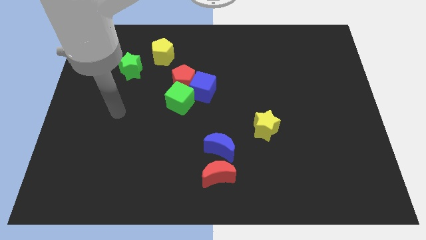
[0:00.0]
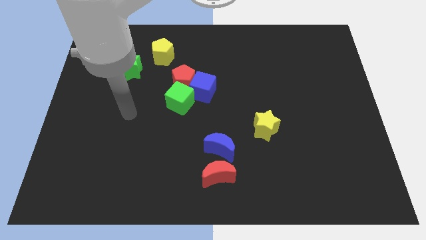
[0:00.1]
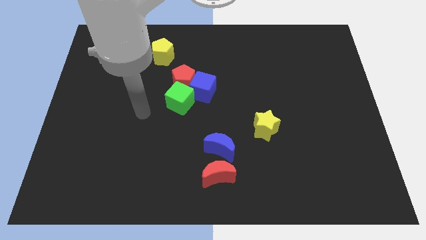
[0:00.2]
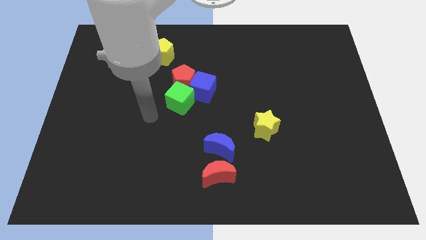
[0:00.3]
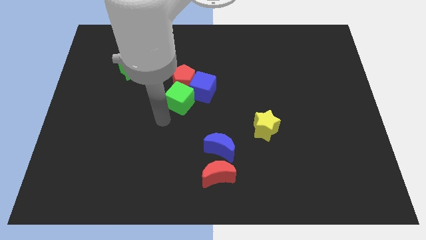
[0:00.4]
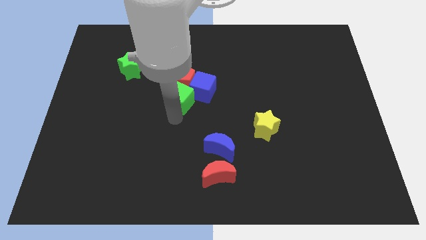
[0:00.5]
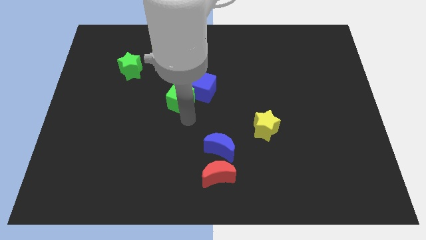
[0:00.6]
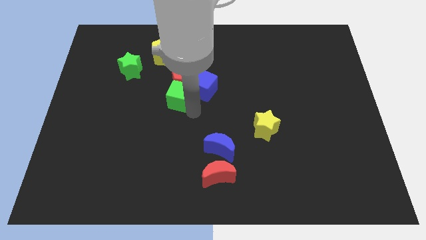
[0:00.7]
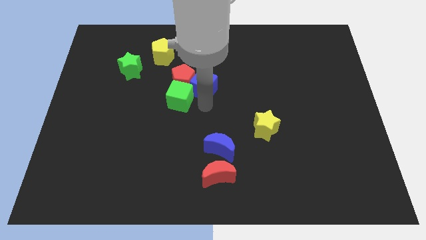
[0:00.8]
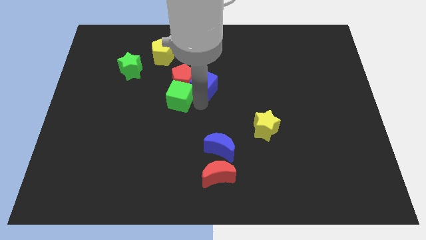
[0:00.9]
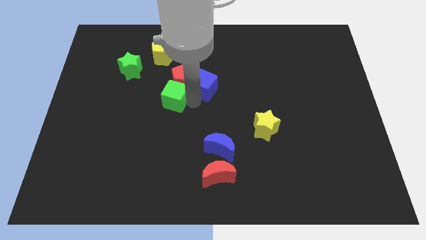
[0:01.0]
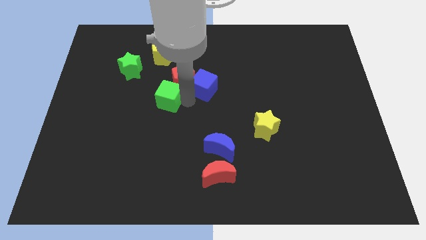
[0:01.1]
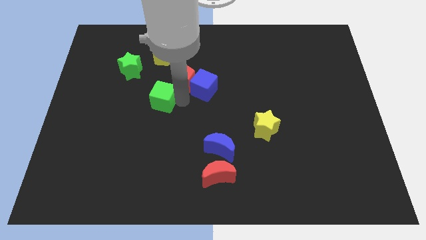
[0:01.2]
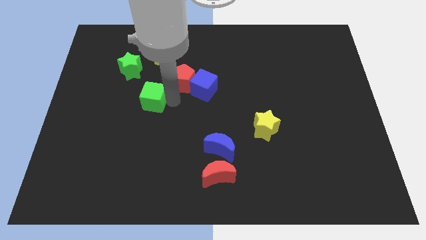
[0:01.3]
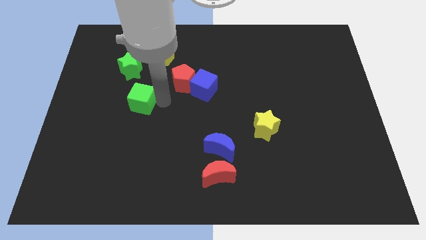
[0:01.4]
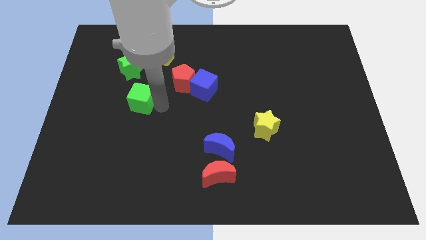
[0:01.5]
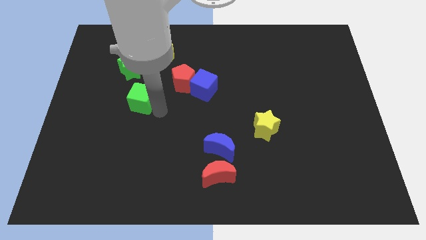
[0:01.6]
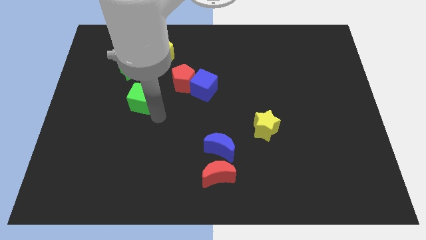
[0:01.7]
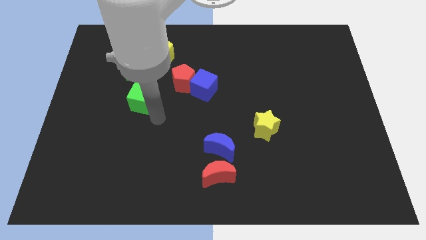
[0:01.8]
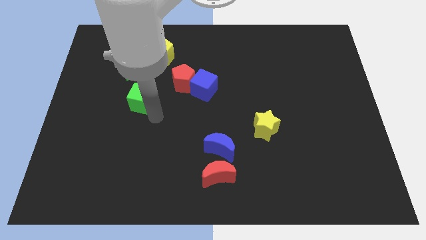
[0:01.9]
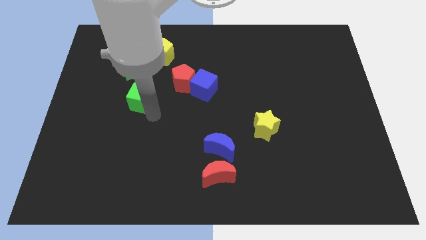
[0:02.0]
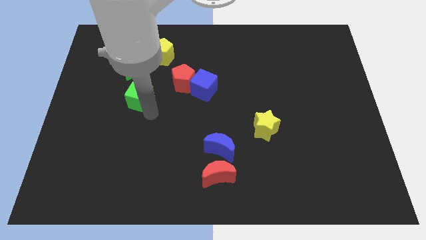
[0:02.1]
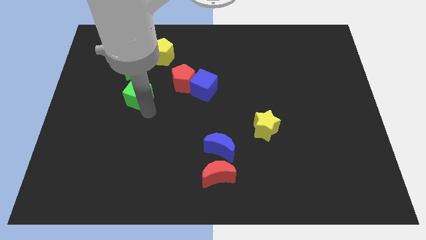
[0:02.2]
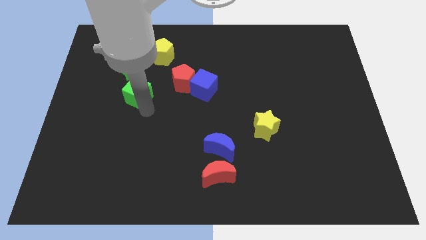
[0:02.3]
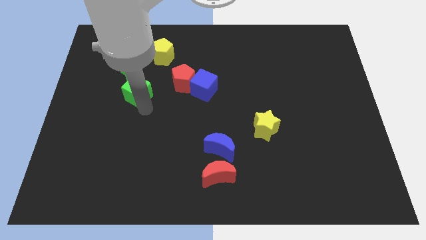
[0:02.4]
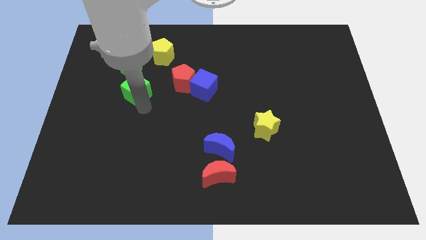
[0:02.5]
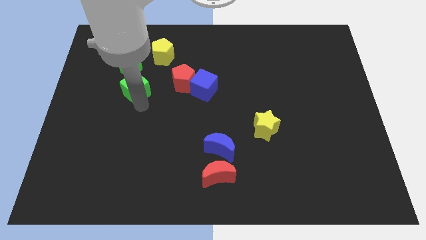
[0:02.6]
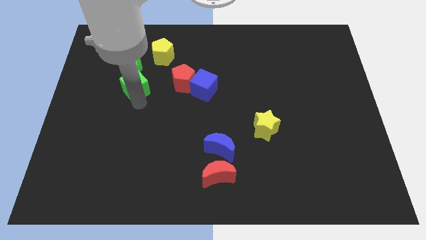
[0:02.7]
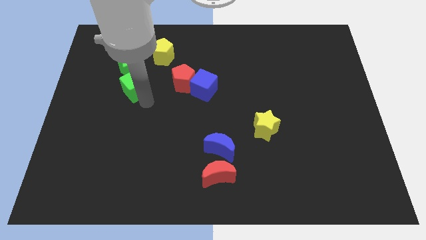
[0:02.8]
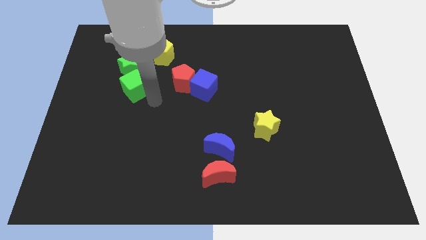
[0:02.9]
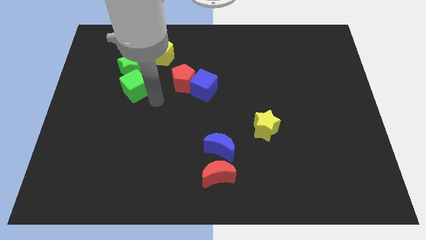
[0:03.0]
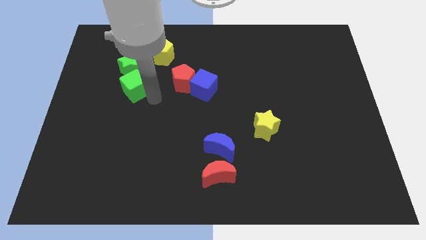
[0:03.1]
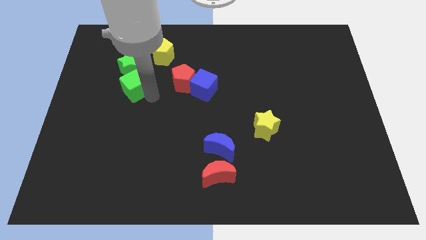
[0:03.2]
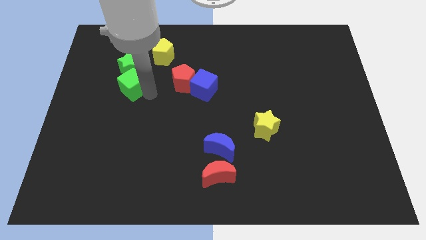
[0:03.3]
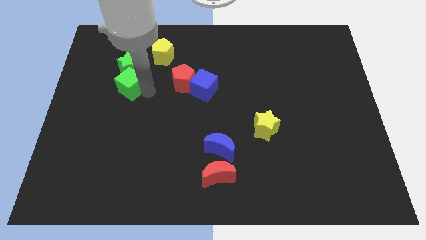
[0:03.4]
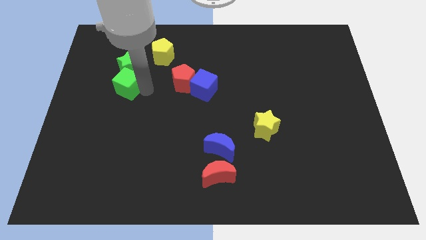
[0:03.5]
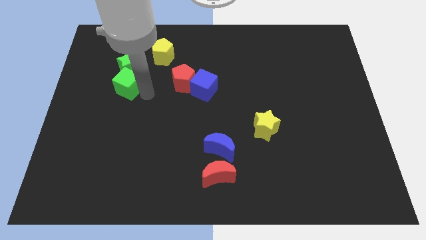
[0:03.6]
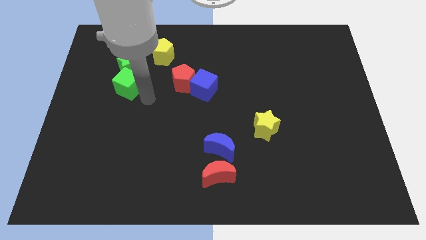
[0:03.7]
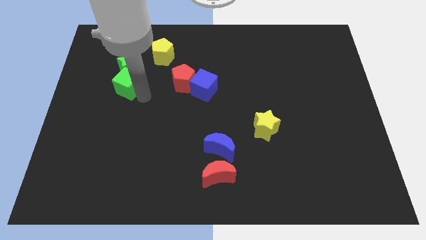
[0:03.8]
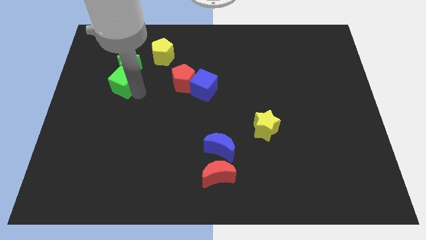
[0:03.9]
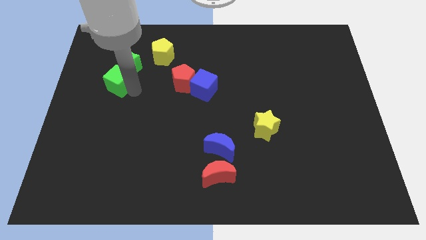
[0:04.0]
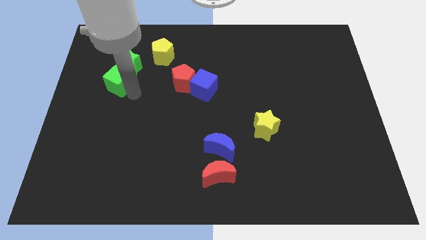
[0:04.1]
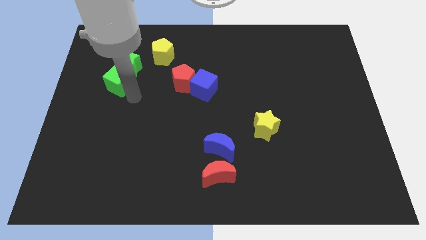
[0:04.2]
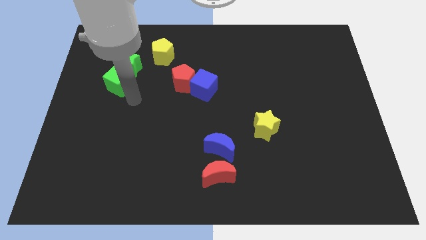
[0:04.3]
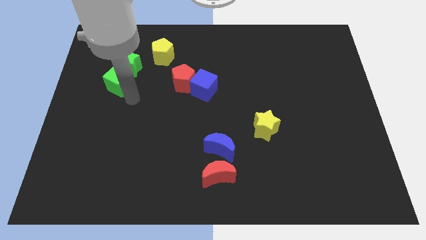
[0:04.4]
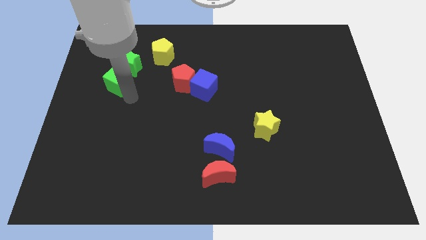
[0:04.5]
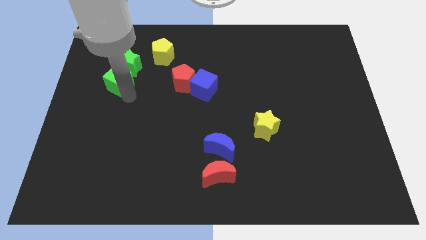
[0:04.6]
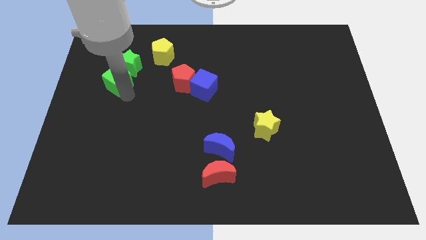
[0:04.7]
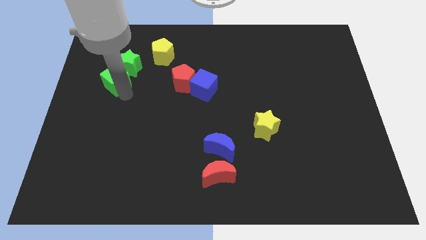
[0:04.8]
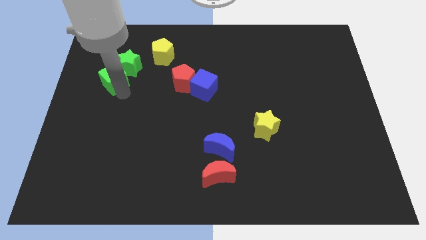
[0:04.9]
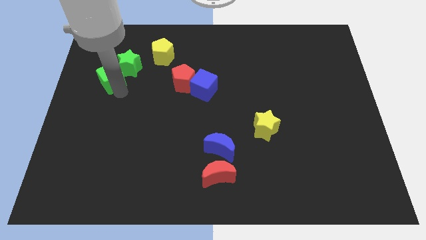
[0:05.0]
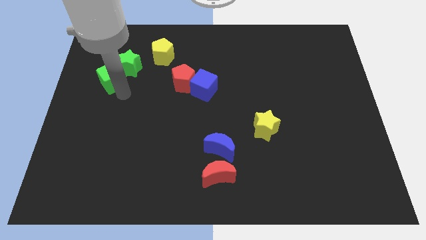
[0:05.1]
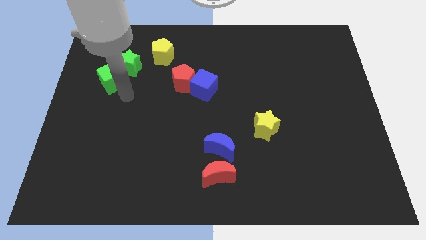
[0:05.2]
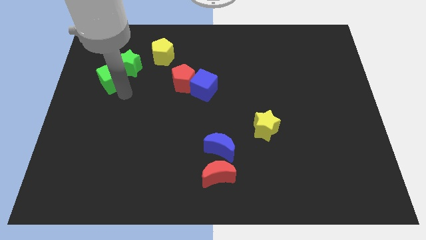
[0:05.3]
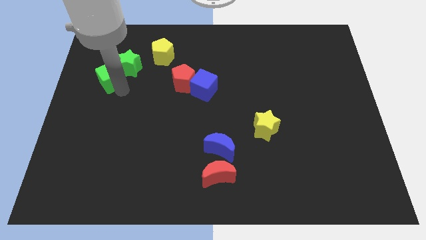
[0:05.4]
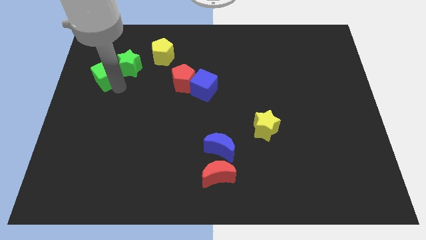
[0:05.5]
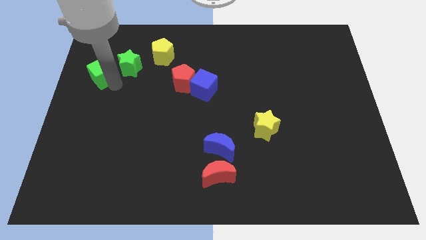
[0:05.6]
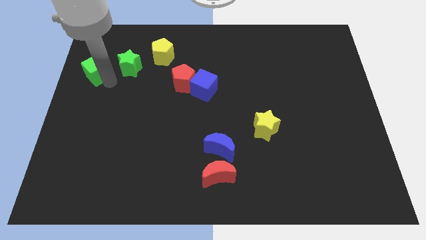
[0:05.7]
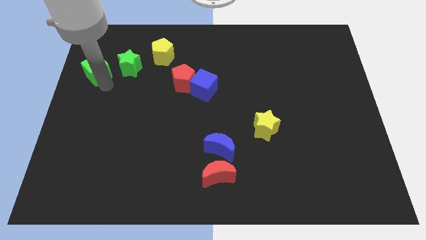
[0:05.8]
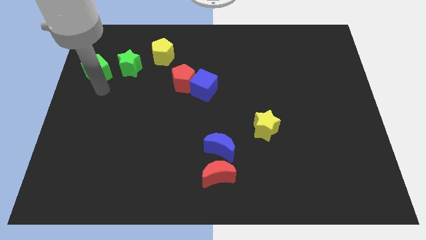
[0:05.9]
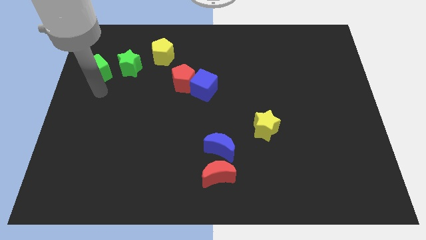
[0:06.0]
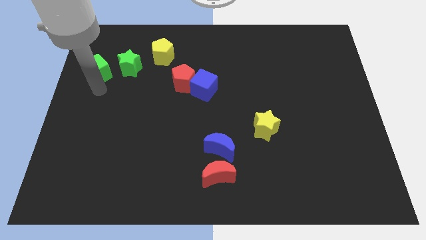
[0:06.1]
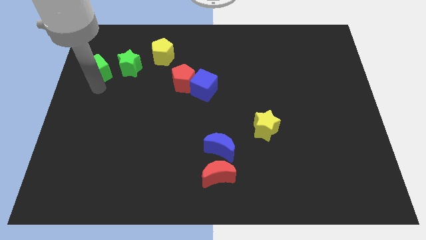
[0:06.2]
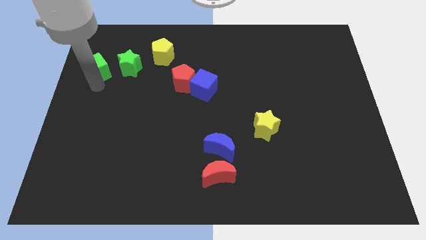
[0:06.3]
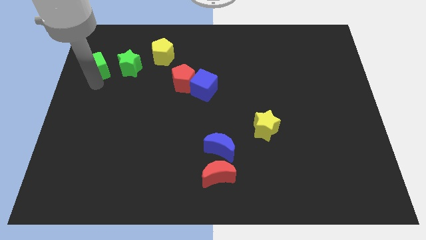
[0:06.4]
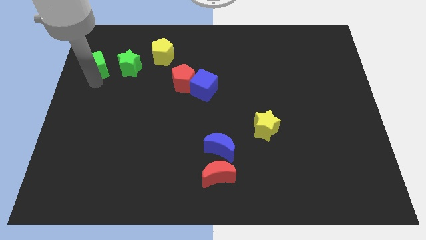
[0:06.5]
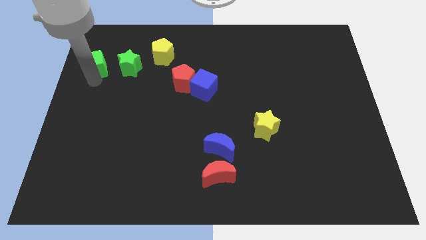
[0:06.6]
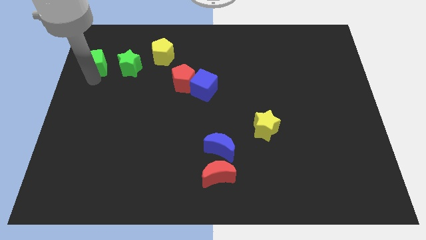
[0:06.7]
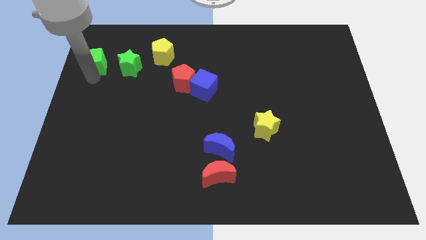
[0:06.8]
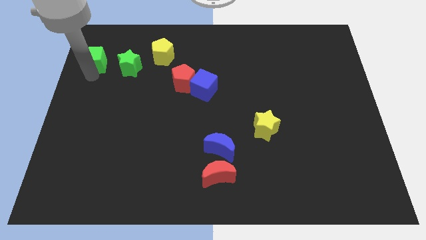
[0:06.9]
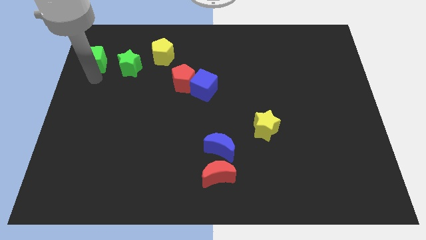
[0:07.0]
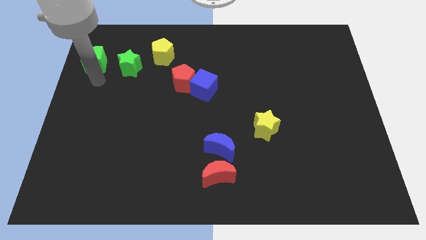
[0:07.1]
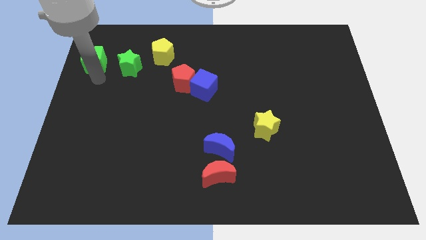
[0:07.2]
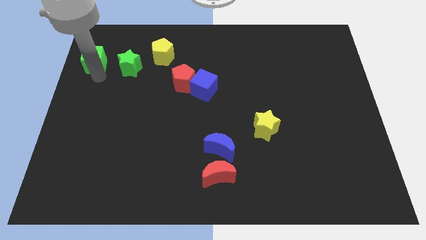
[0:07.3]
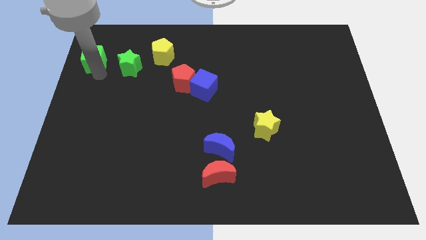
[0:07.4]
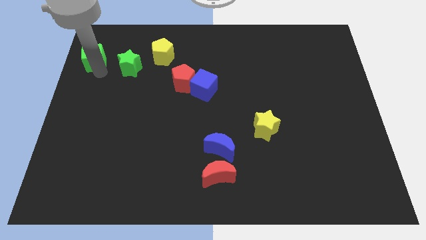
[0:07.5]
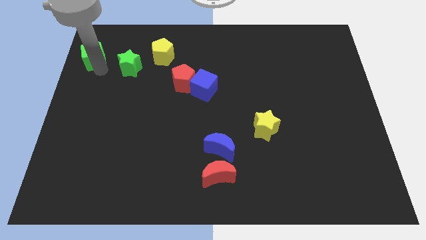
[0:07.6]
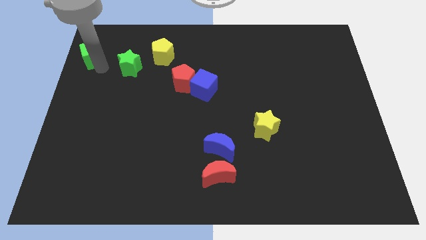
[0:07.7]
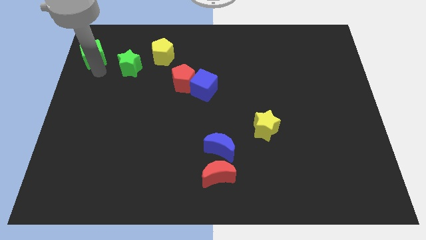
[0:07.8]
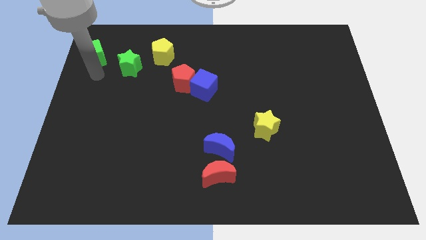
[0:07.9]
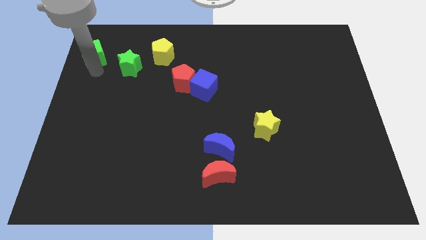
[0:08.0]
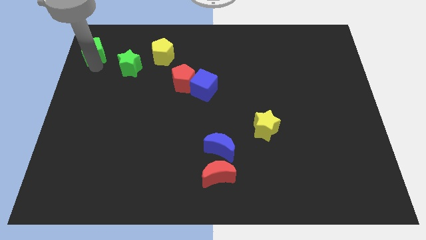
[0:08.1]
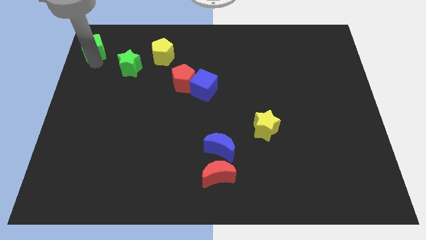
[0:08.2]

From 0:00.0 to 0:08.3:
slide the green cube to the upper left corner
